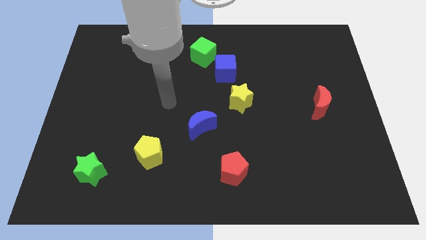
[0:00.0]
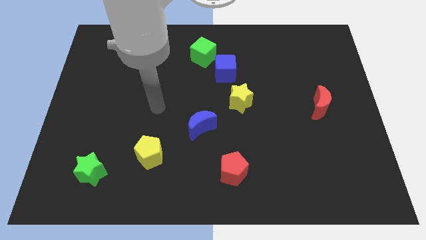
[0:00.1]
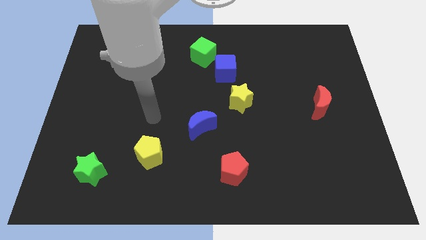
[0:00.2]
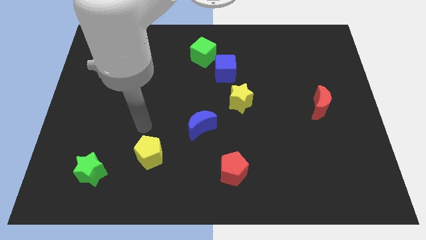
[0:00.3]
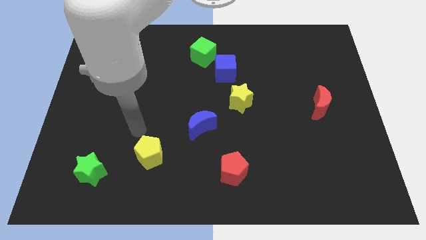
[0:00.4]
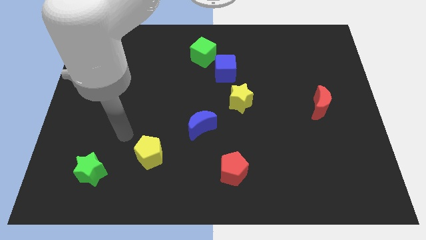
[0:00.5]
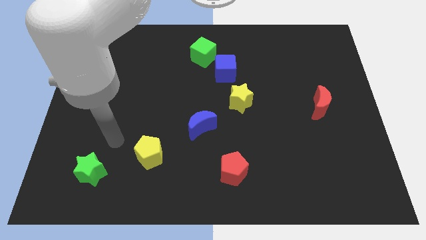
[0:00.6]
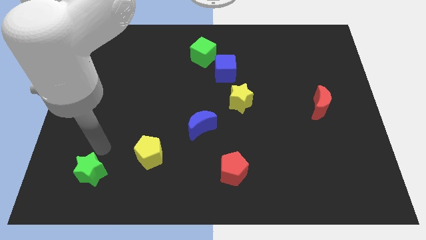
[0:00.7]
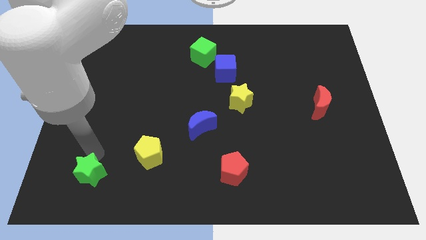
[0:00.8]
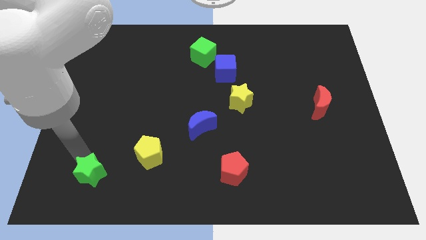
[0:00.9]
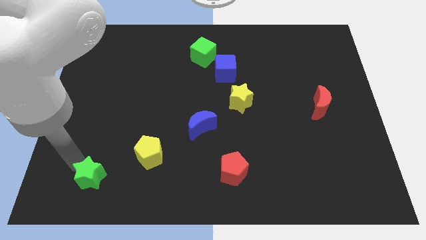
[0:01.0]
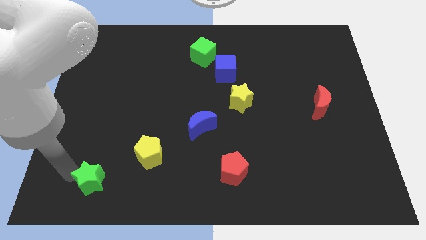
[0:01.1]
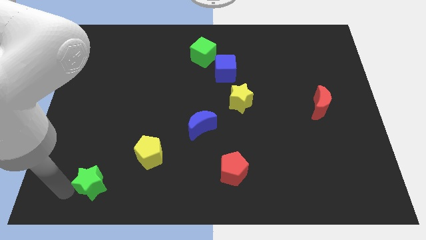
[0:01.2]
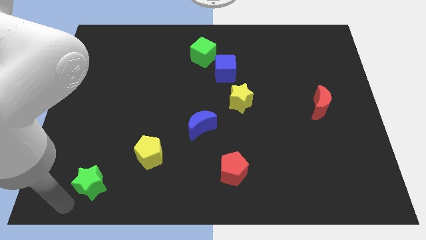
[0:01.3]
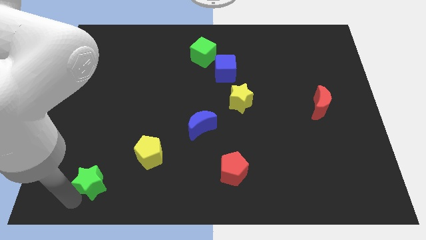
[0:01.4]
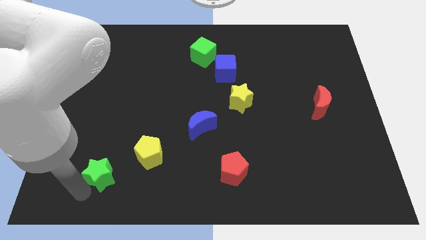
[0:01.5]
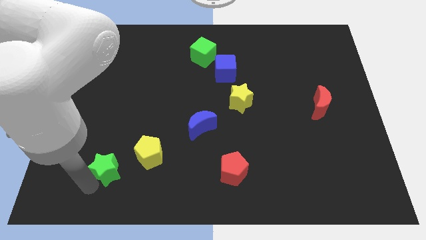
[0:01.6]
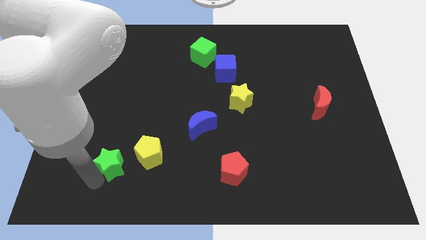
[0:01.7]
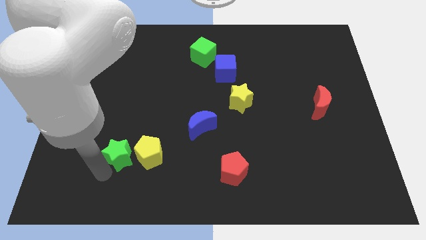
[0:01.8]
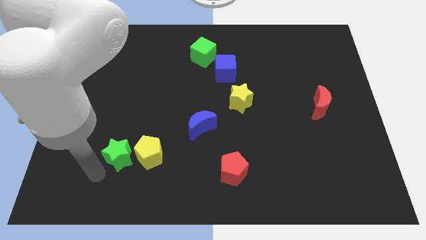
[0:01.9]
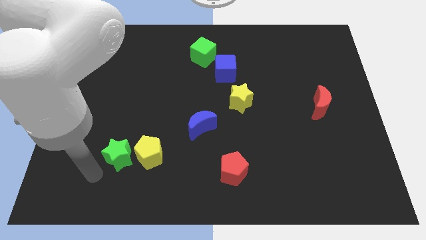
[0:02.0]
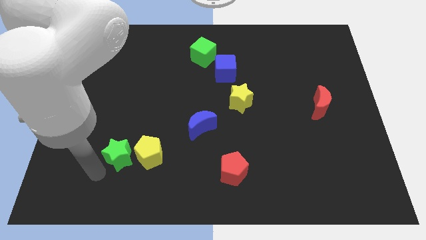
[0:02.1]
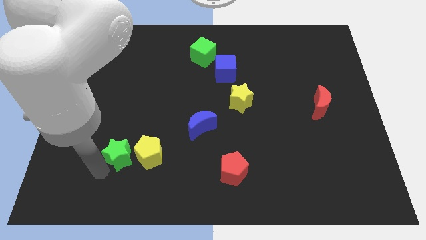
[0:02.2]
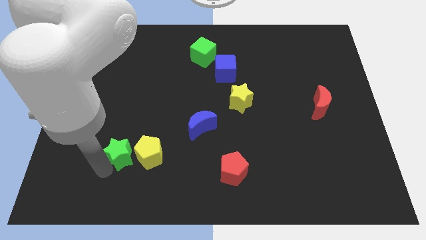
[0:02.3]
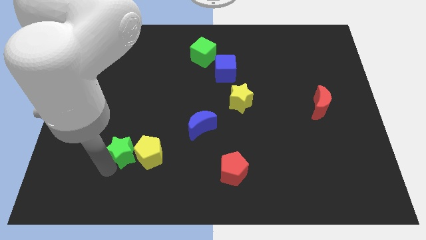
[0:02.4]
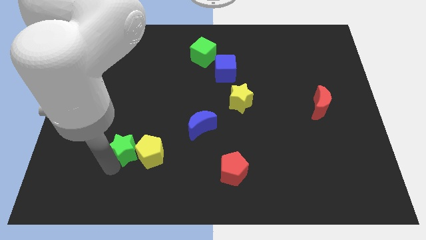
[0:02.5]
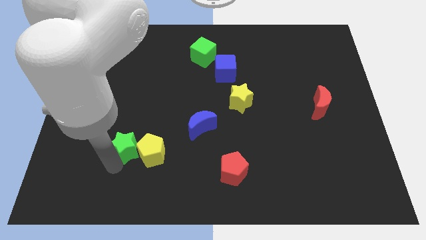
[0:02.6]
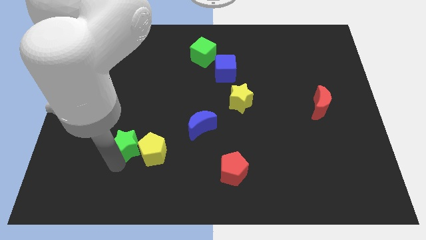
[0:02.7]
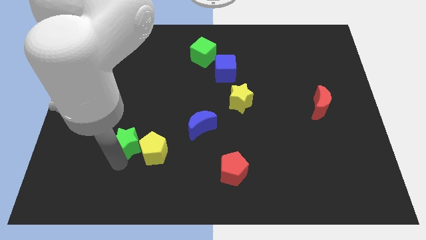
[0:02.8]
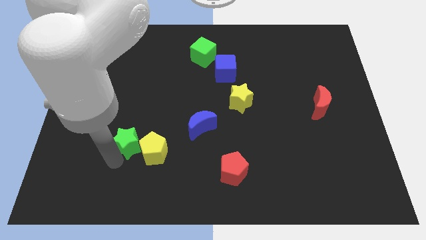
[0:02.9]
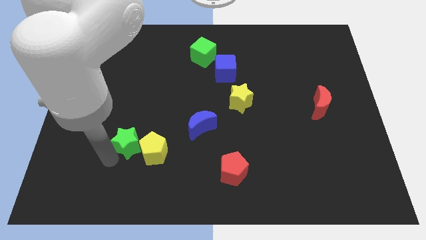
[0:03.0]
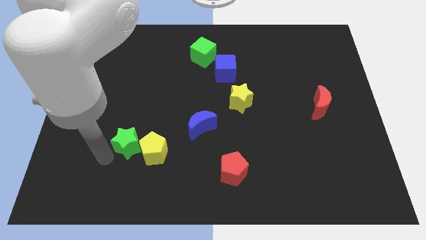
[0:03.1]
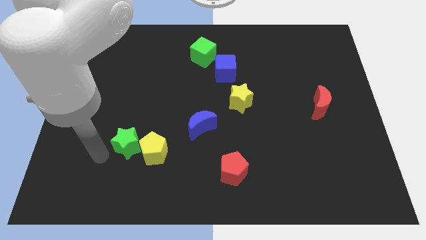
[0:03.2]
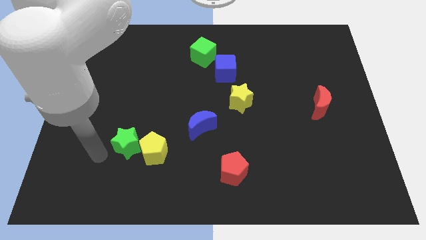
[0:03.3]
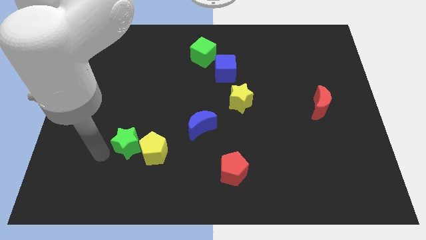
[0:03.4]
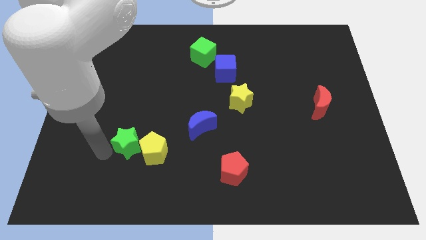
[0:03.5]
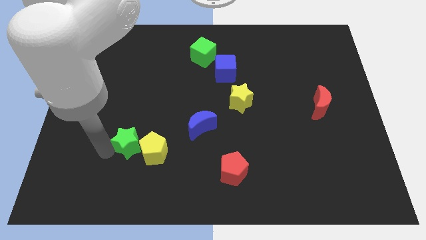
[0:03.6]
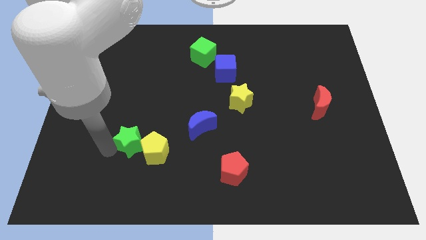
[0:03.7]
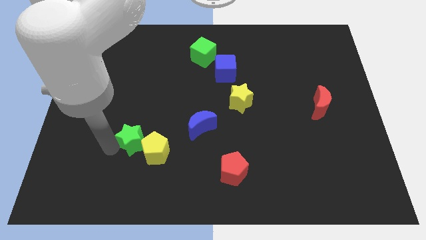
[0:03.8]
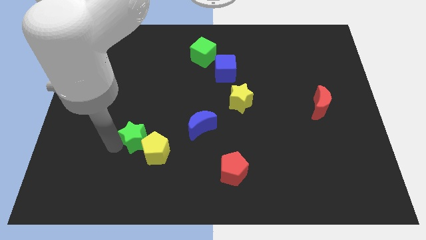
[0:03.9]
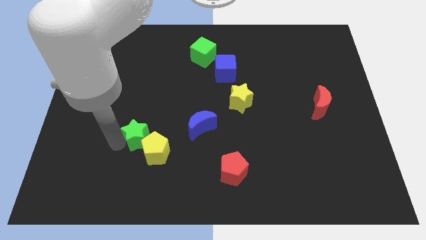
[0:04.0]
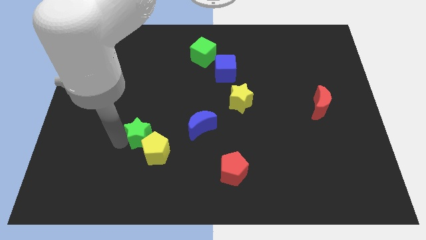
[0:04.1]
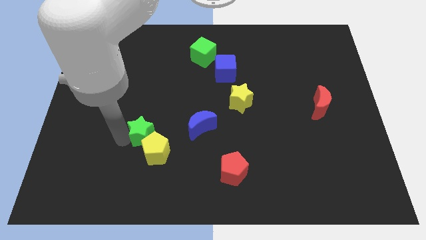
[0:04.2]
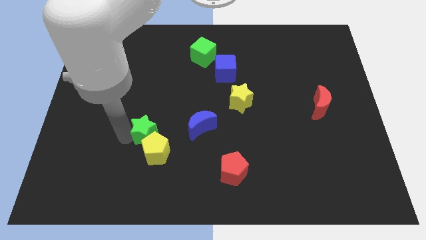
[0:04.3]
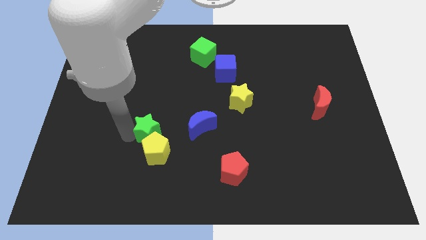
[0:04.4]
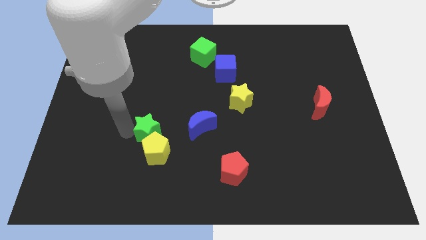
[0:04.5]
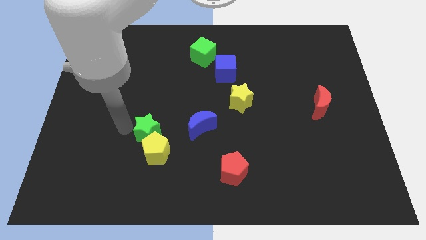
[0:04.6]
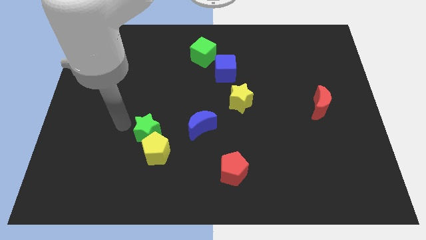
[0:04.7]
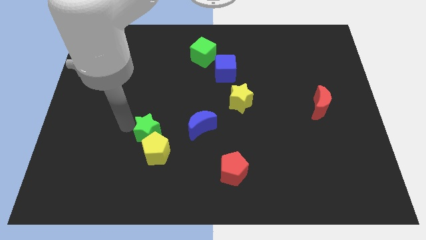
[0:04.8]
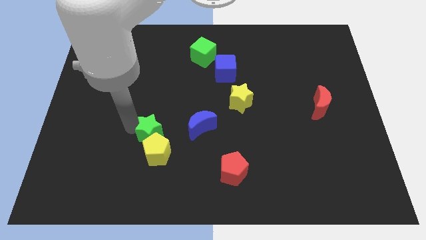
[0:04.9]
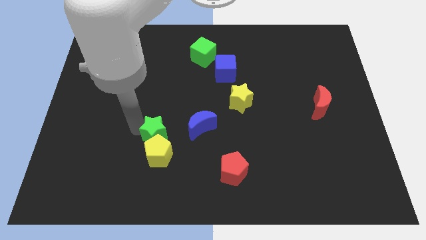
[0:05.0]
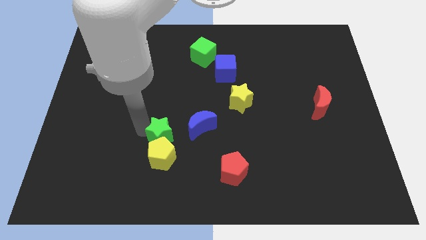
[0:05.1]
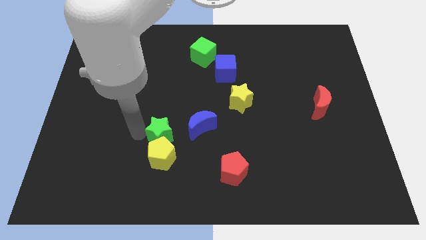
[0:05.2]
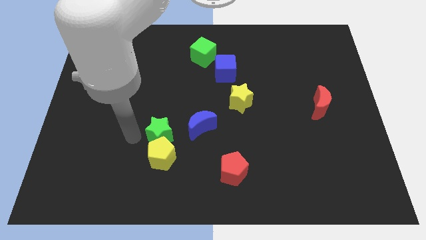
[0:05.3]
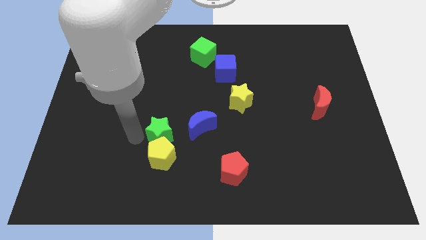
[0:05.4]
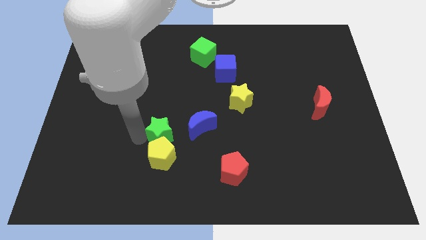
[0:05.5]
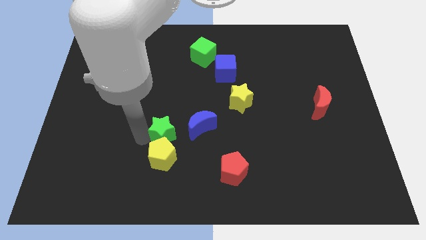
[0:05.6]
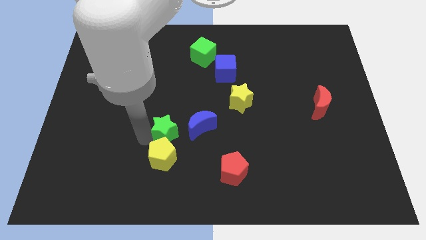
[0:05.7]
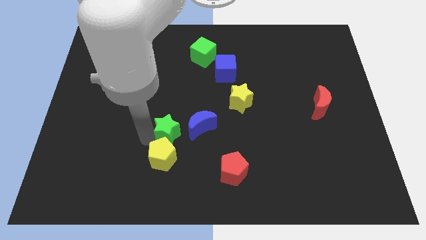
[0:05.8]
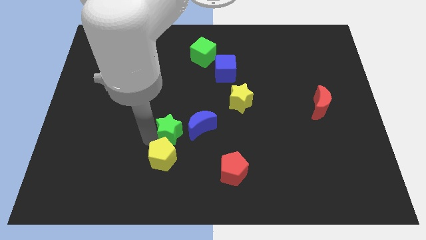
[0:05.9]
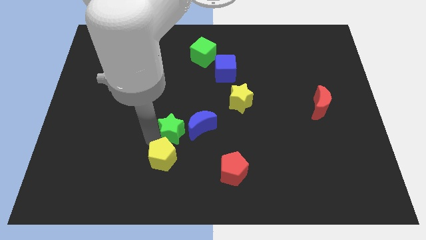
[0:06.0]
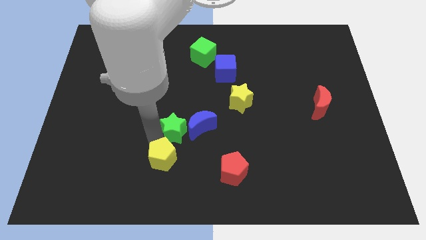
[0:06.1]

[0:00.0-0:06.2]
push the green star close to the blue moon
